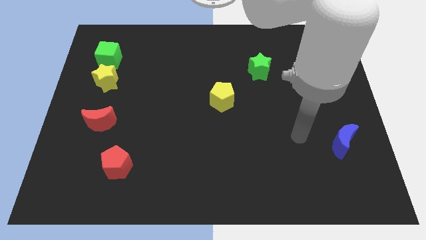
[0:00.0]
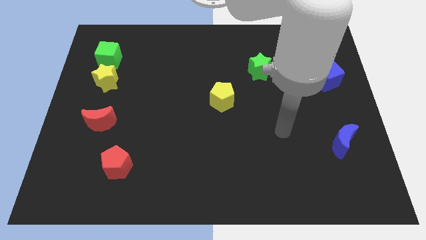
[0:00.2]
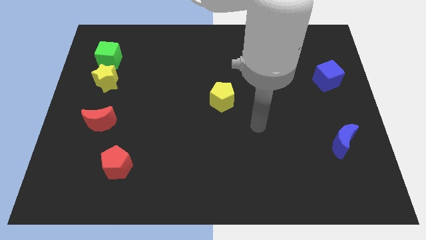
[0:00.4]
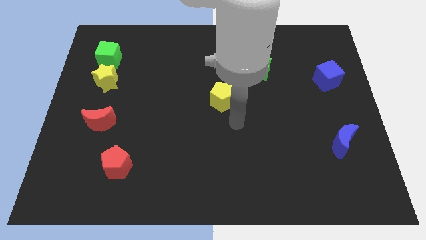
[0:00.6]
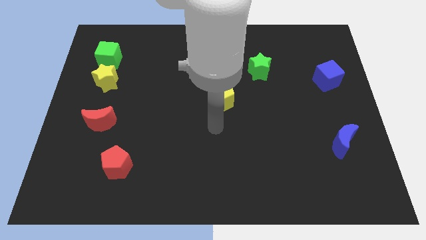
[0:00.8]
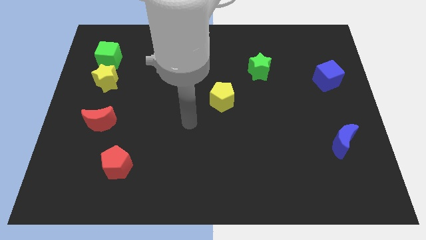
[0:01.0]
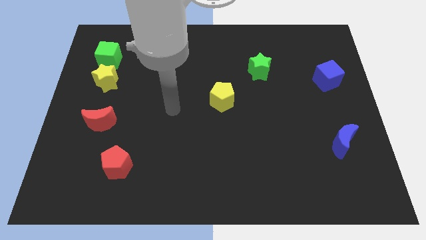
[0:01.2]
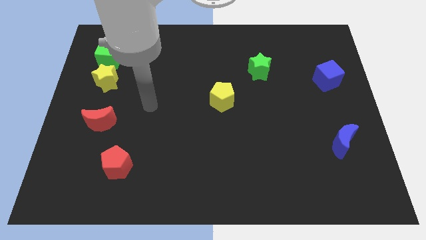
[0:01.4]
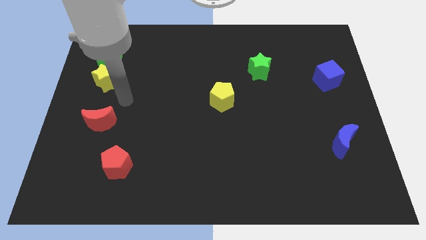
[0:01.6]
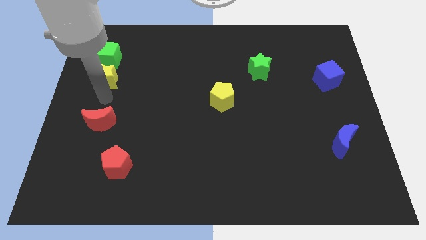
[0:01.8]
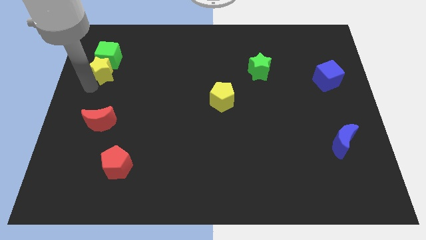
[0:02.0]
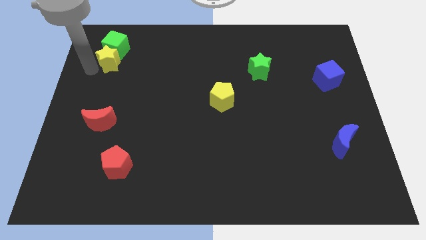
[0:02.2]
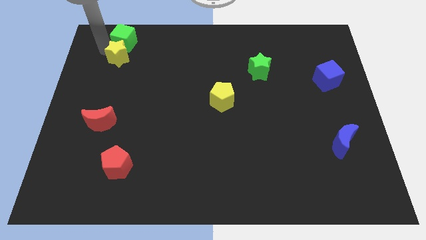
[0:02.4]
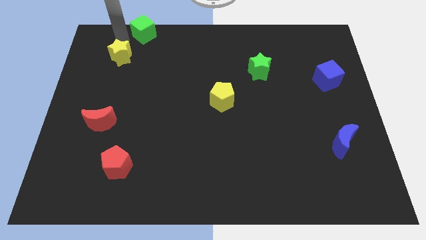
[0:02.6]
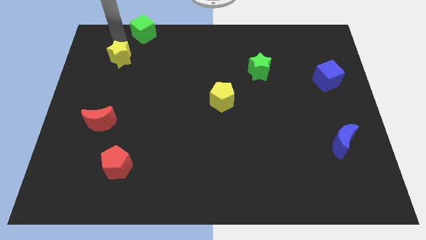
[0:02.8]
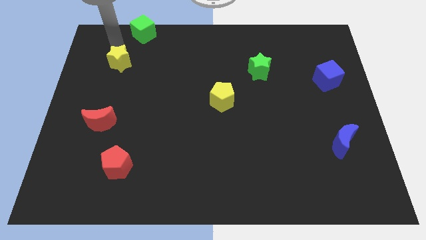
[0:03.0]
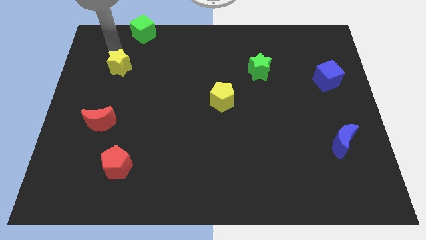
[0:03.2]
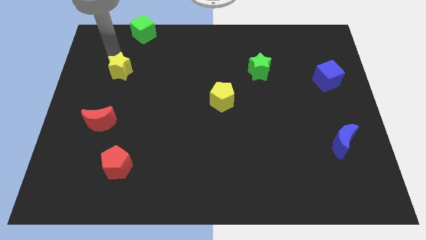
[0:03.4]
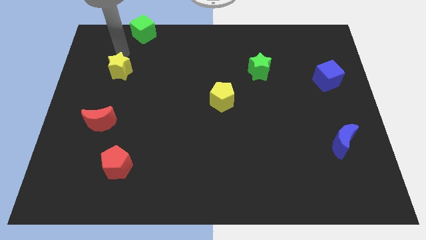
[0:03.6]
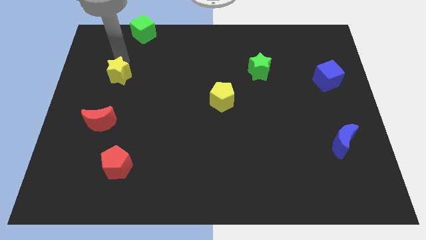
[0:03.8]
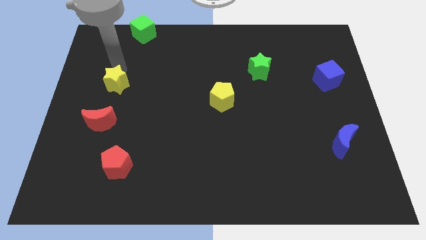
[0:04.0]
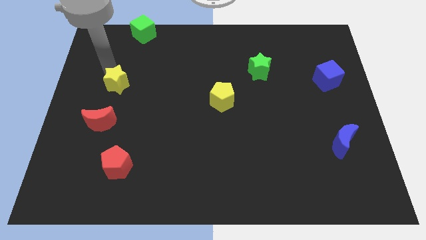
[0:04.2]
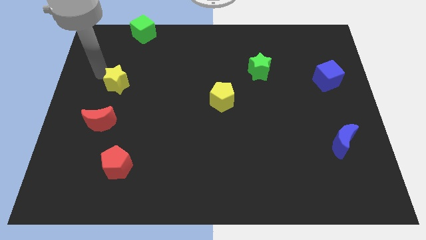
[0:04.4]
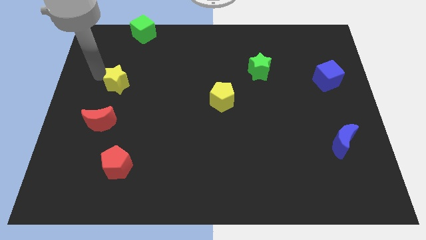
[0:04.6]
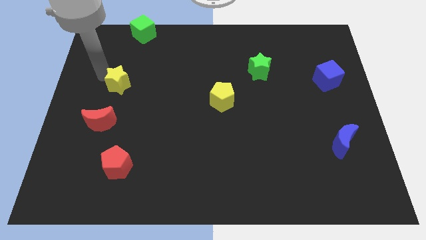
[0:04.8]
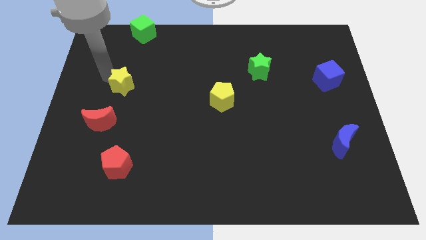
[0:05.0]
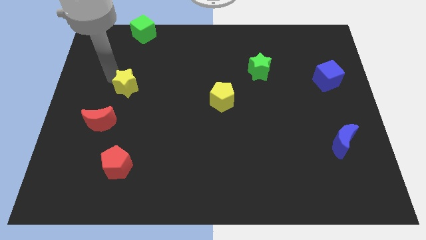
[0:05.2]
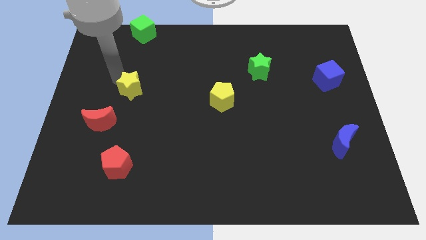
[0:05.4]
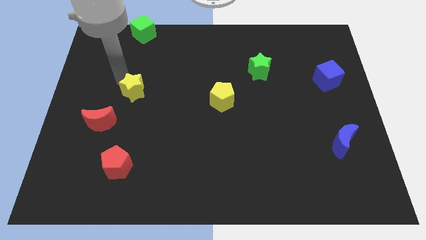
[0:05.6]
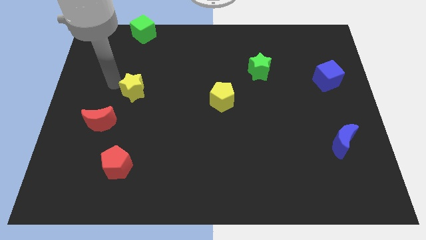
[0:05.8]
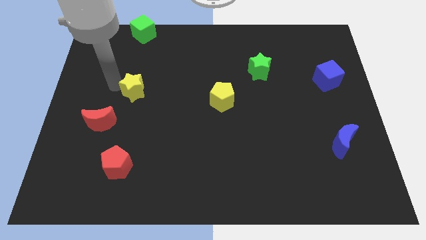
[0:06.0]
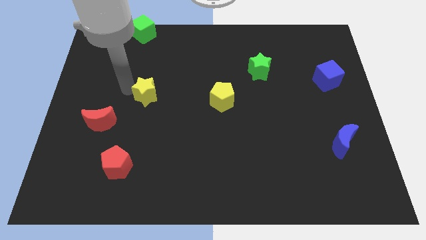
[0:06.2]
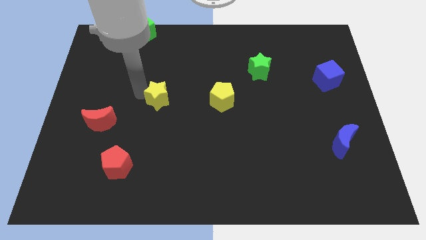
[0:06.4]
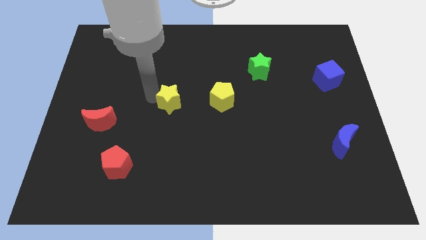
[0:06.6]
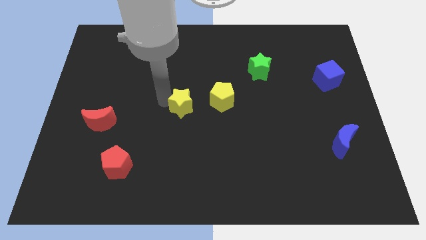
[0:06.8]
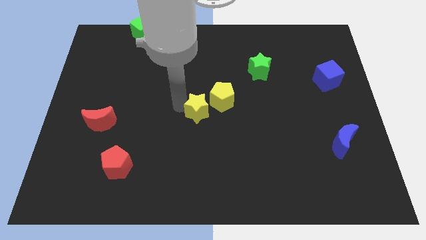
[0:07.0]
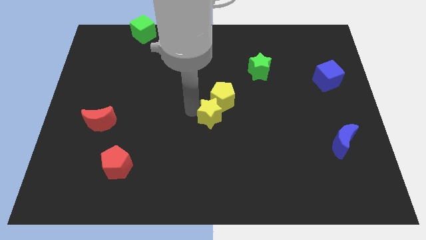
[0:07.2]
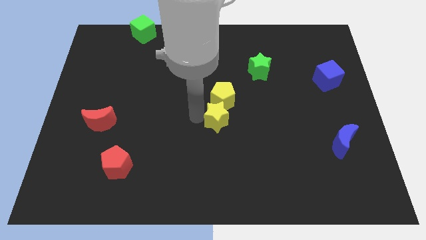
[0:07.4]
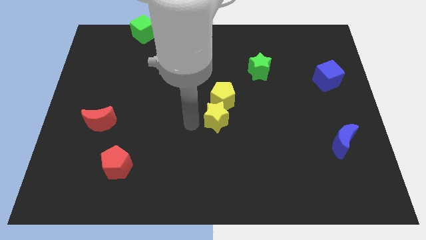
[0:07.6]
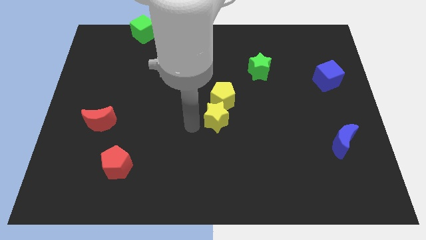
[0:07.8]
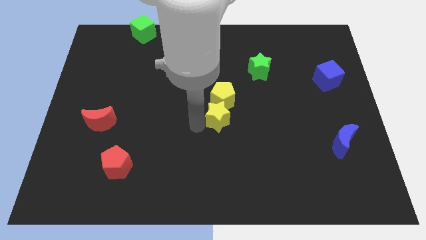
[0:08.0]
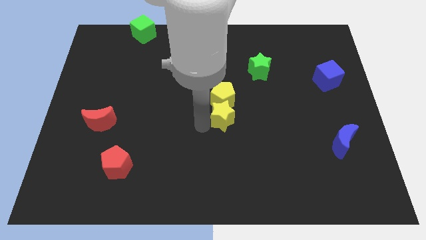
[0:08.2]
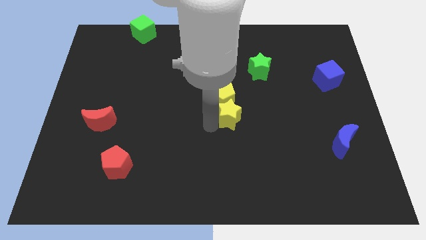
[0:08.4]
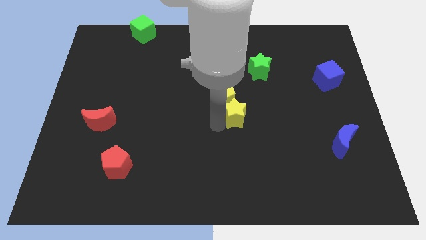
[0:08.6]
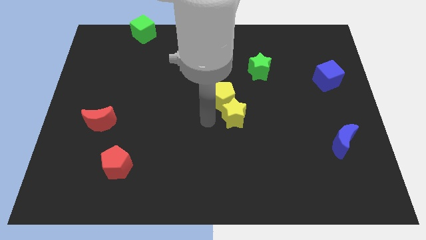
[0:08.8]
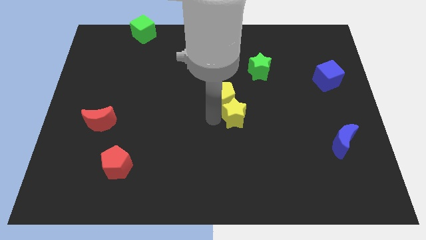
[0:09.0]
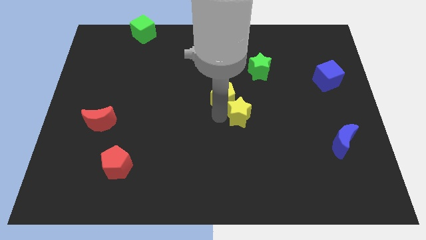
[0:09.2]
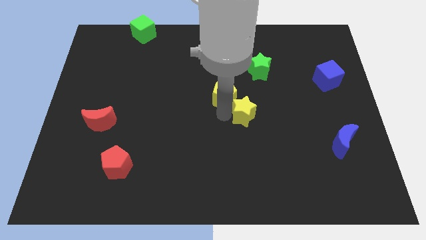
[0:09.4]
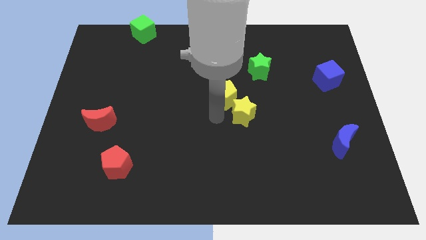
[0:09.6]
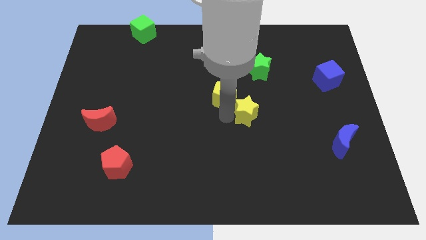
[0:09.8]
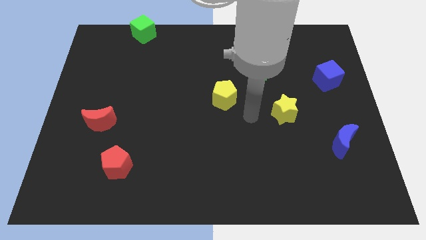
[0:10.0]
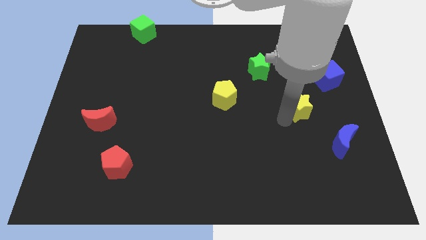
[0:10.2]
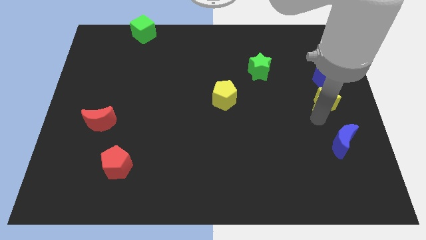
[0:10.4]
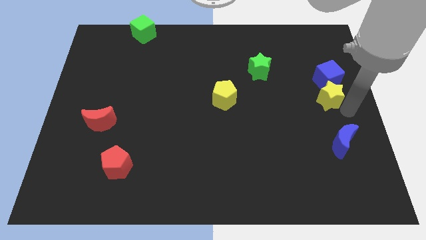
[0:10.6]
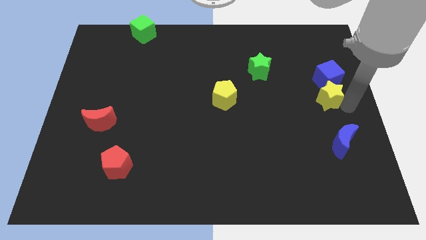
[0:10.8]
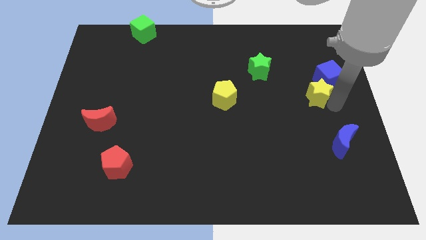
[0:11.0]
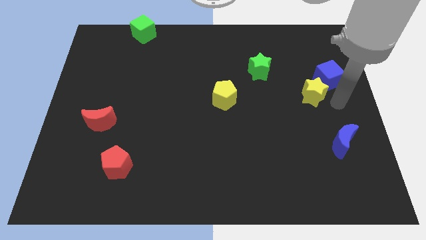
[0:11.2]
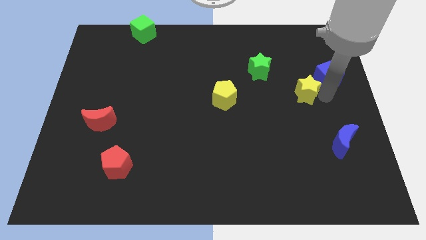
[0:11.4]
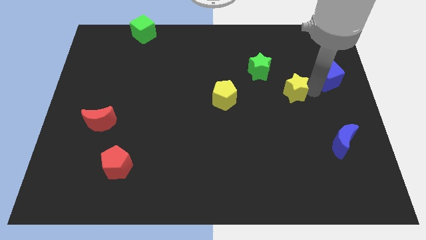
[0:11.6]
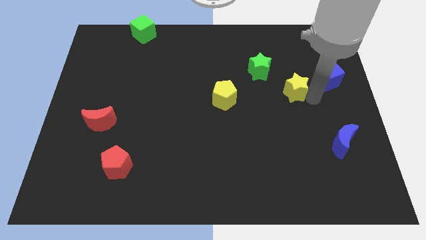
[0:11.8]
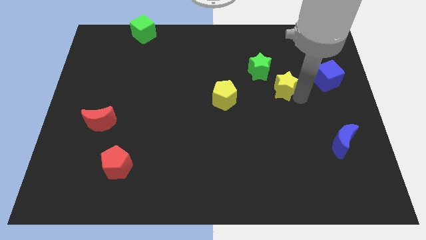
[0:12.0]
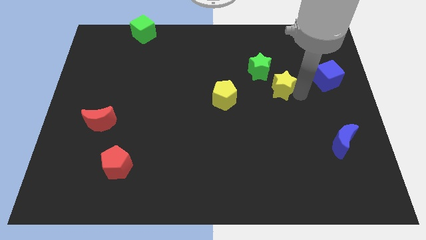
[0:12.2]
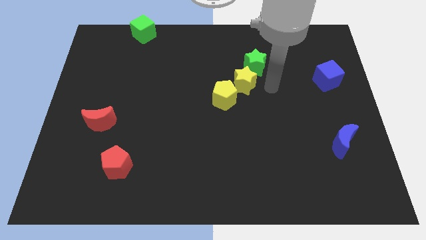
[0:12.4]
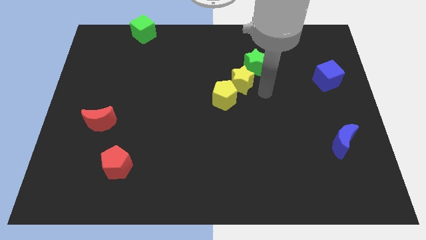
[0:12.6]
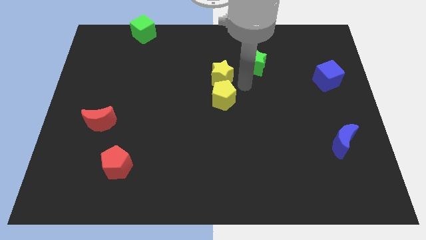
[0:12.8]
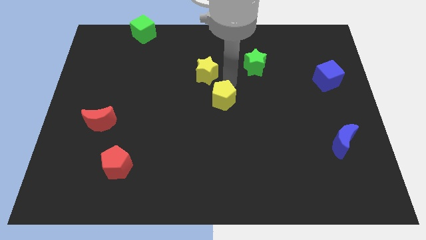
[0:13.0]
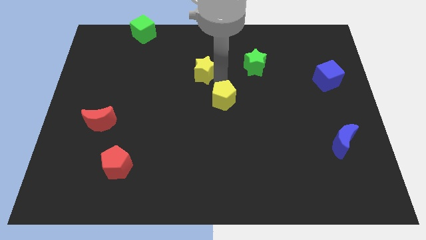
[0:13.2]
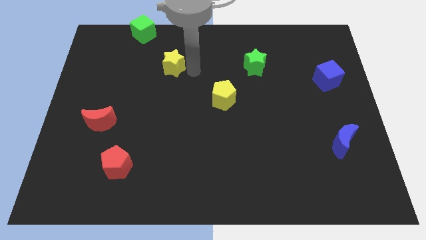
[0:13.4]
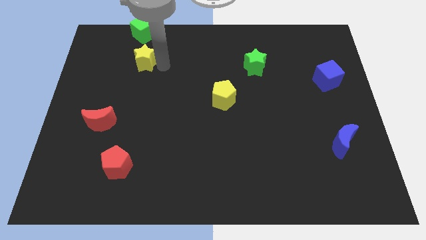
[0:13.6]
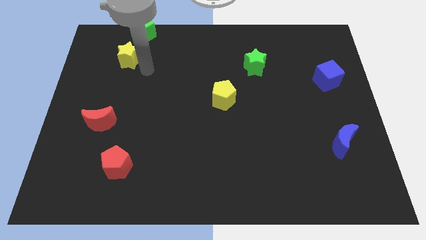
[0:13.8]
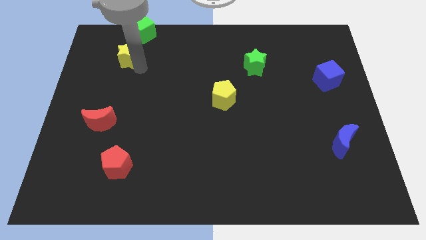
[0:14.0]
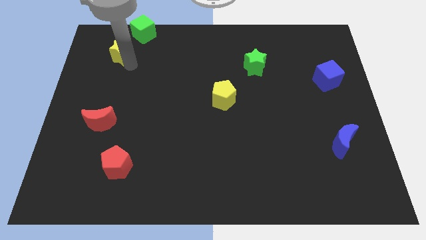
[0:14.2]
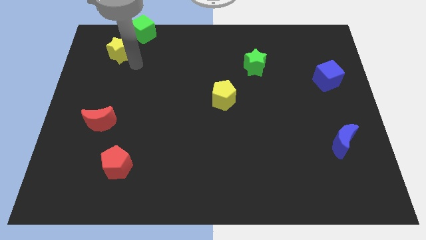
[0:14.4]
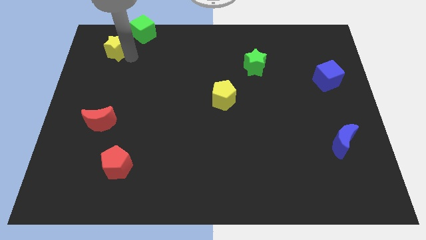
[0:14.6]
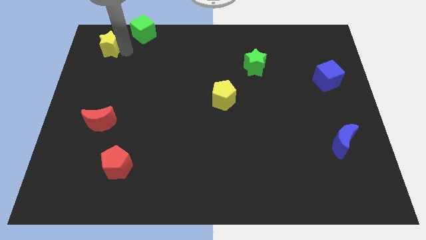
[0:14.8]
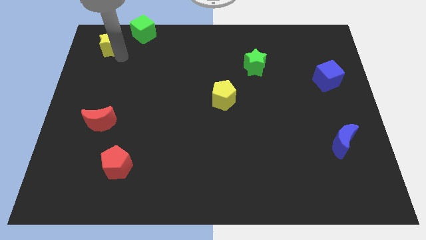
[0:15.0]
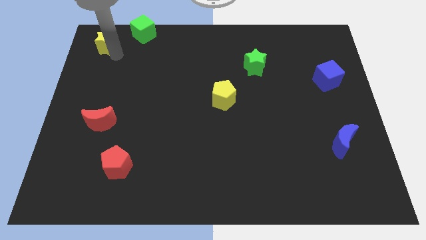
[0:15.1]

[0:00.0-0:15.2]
put the yellow star to the top left corner
